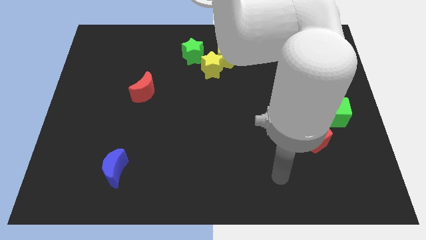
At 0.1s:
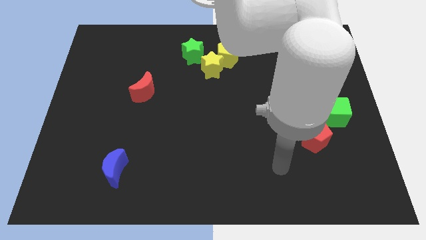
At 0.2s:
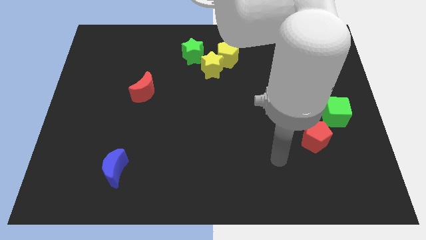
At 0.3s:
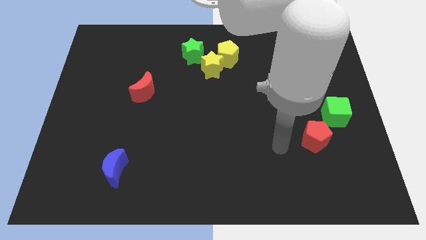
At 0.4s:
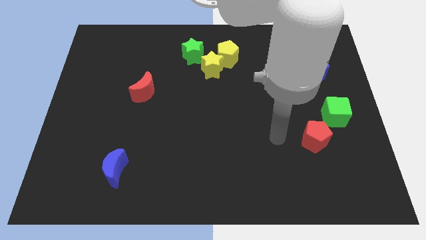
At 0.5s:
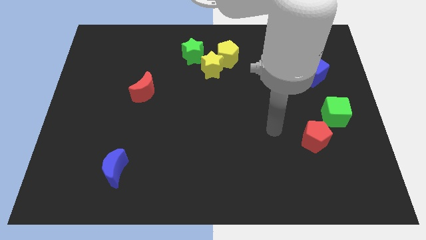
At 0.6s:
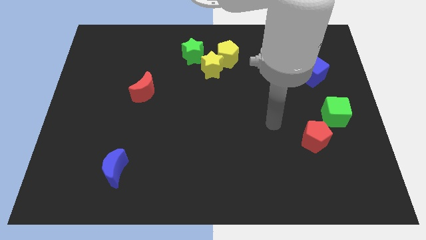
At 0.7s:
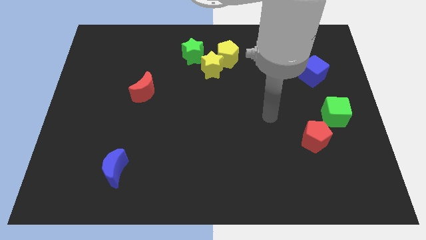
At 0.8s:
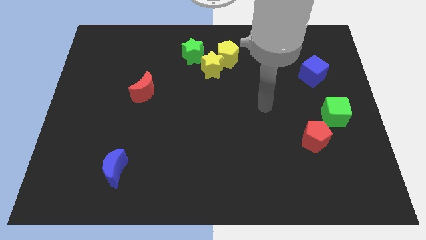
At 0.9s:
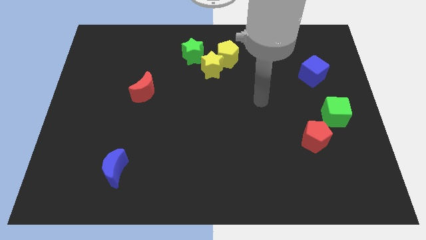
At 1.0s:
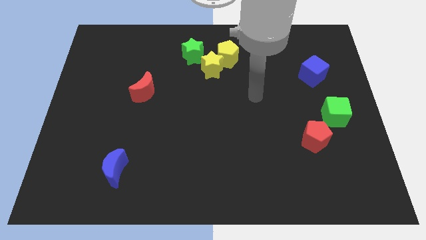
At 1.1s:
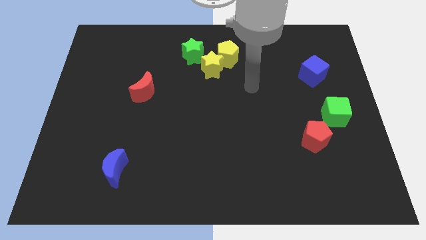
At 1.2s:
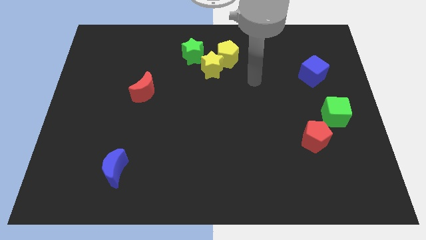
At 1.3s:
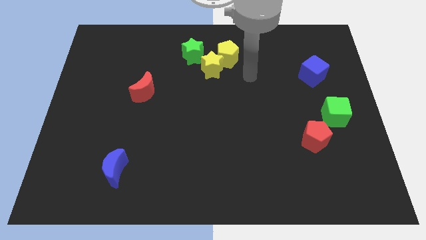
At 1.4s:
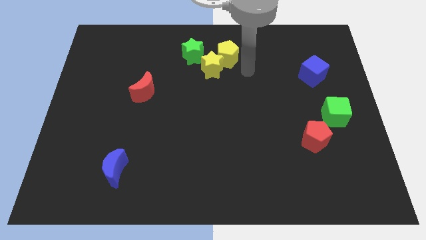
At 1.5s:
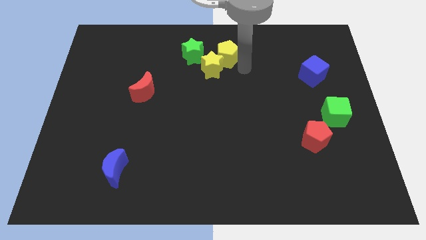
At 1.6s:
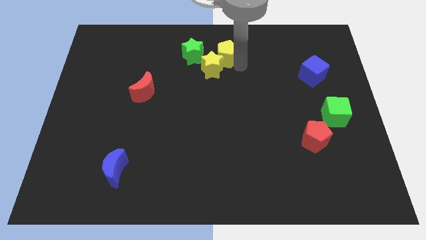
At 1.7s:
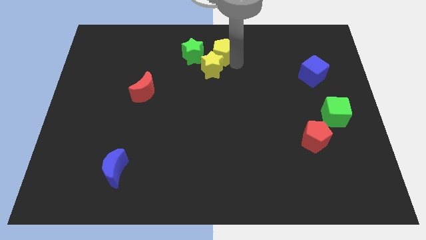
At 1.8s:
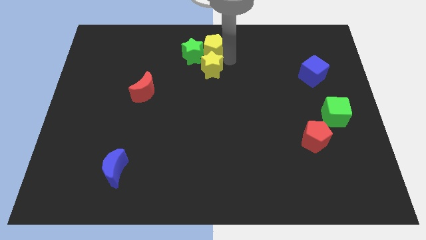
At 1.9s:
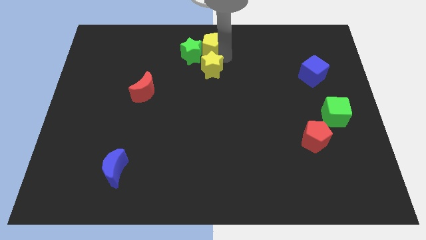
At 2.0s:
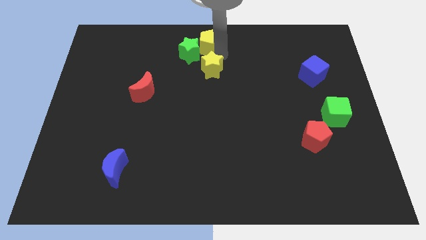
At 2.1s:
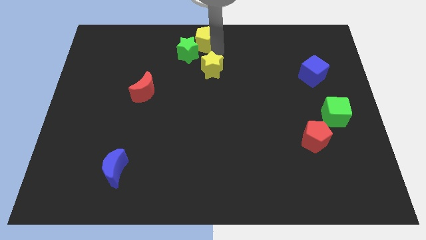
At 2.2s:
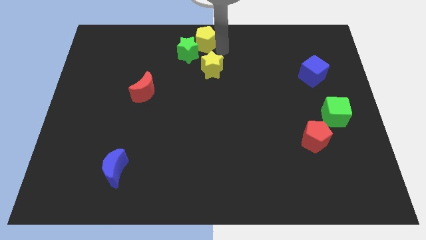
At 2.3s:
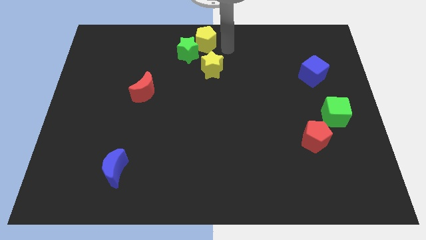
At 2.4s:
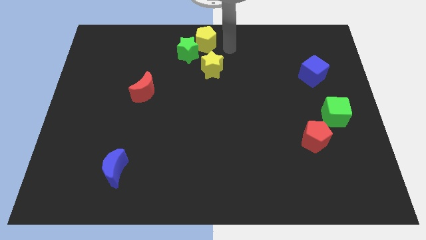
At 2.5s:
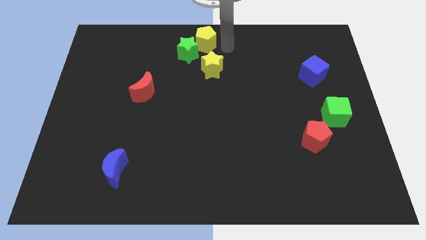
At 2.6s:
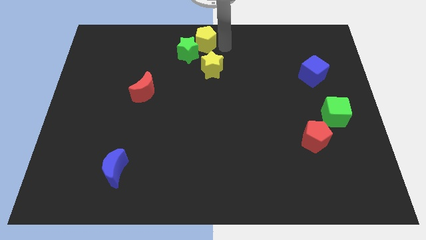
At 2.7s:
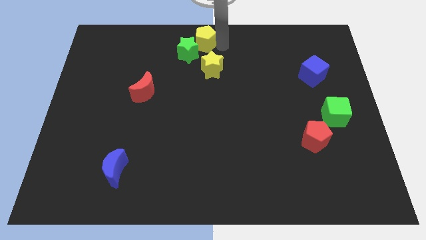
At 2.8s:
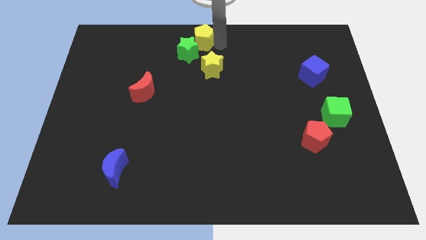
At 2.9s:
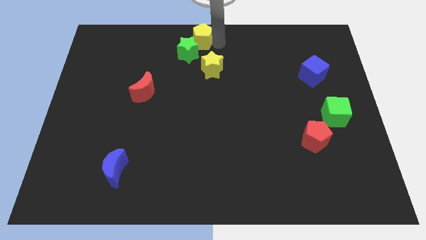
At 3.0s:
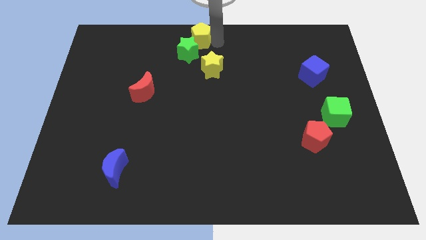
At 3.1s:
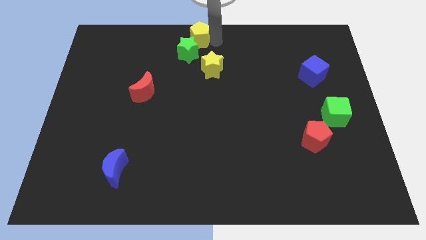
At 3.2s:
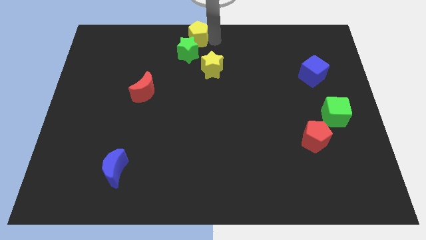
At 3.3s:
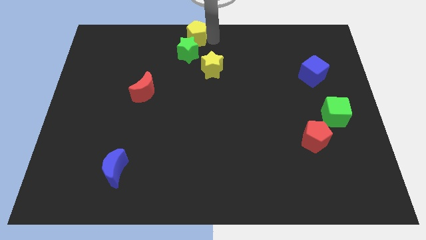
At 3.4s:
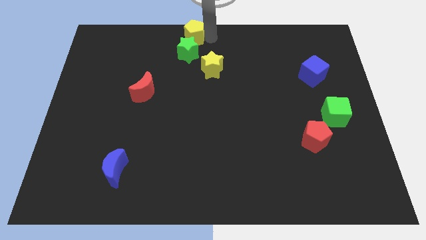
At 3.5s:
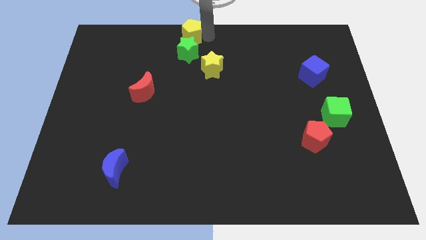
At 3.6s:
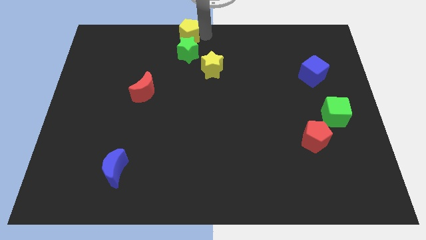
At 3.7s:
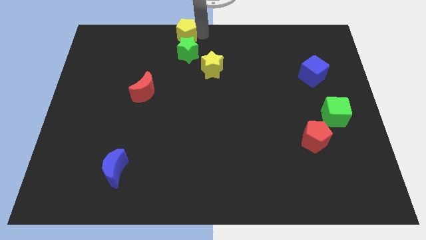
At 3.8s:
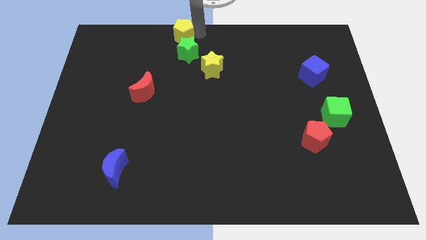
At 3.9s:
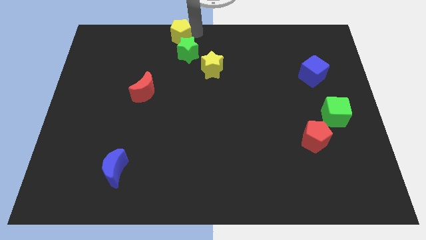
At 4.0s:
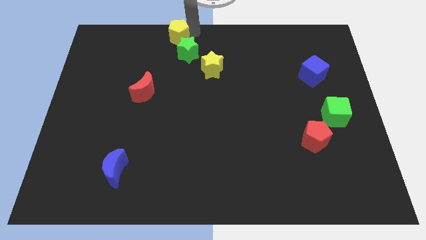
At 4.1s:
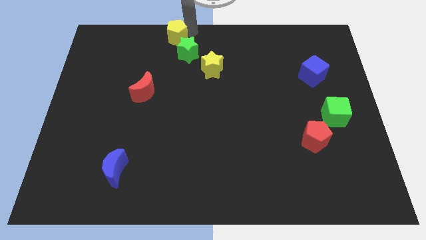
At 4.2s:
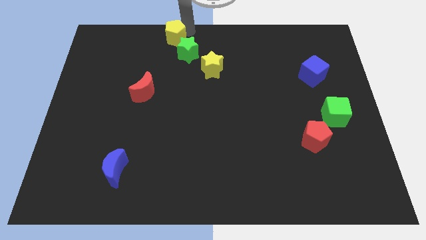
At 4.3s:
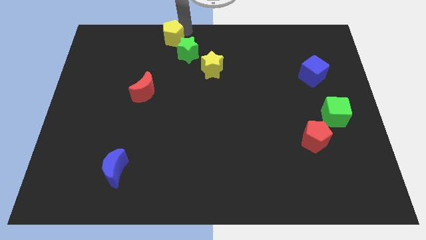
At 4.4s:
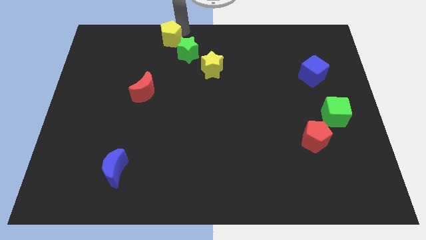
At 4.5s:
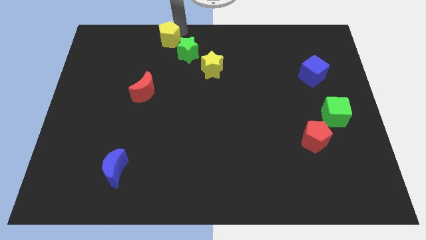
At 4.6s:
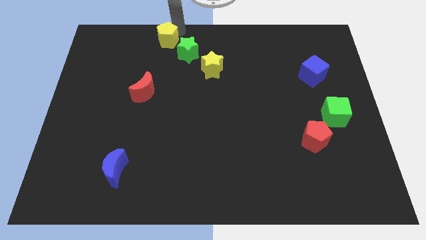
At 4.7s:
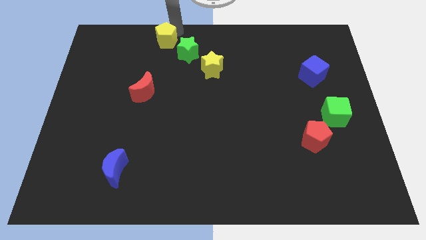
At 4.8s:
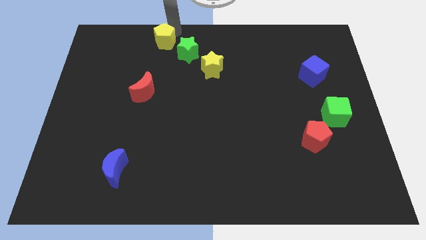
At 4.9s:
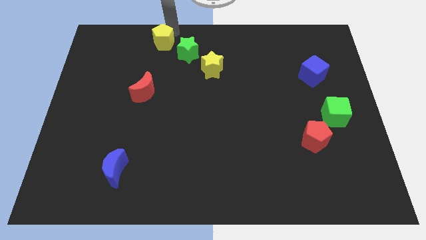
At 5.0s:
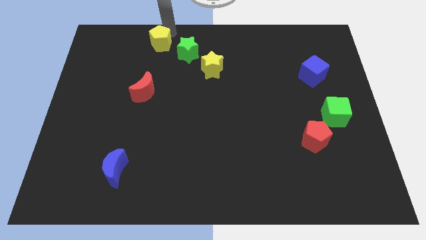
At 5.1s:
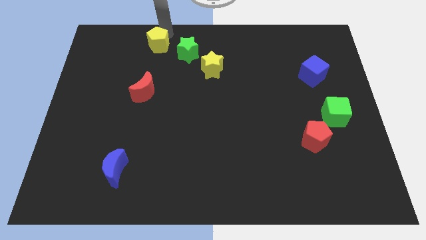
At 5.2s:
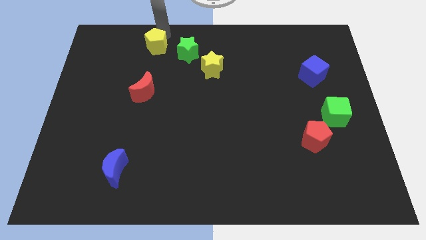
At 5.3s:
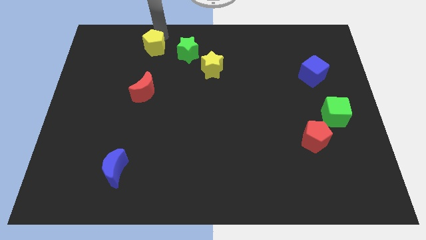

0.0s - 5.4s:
move the yellow pentagon above the red moon

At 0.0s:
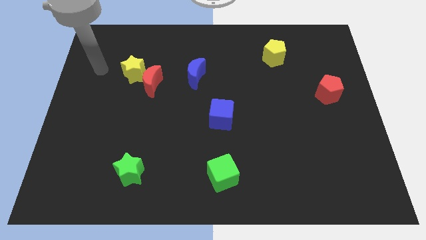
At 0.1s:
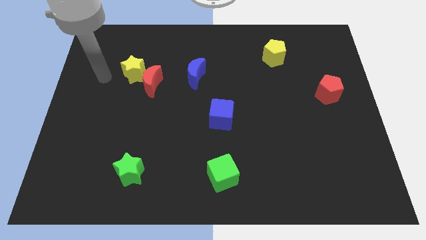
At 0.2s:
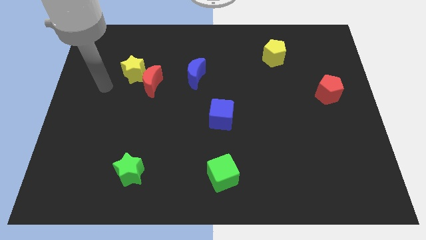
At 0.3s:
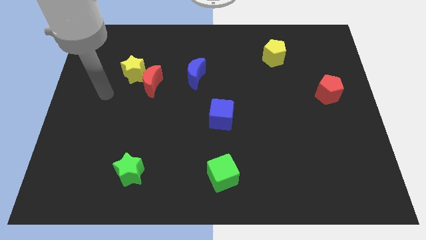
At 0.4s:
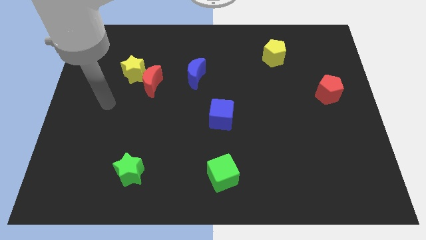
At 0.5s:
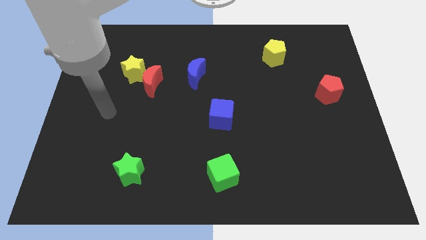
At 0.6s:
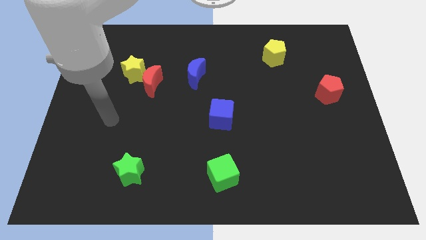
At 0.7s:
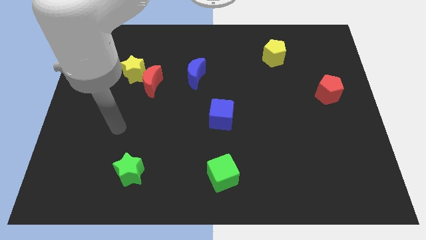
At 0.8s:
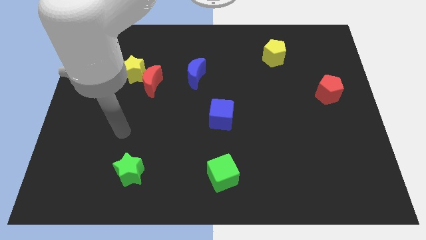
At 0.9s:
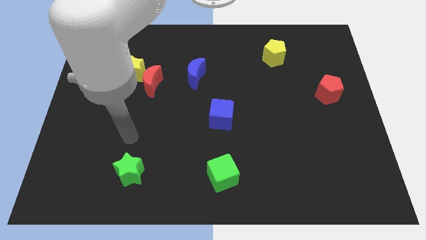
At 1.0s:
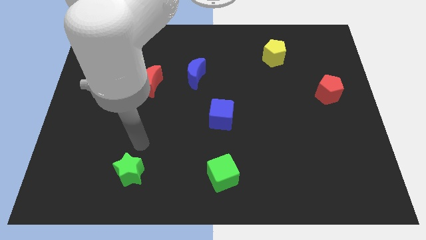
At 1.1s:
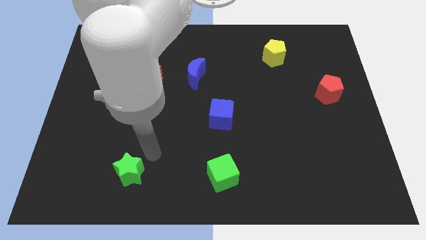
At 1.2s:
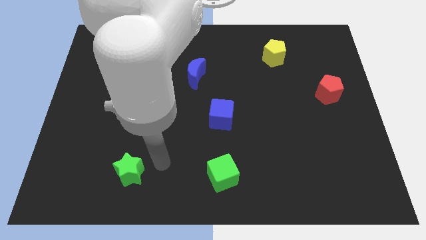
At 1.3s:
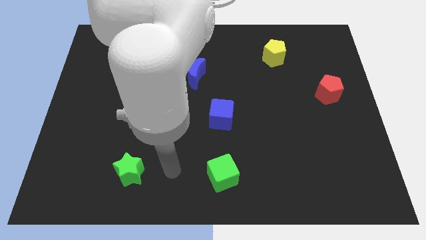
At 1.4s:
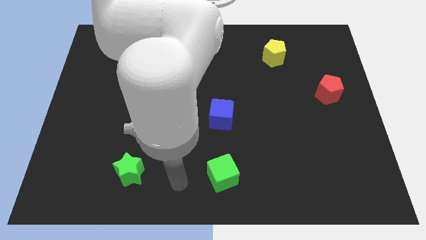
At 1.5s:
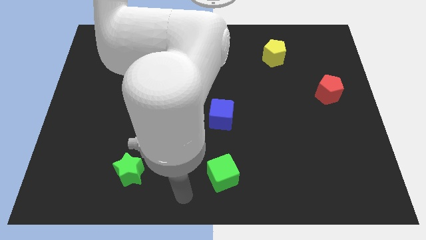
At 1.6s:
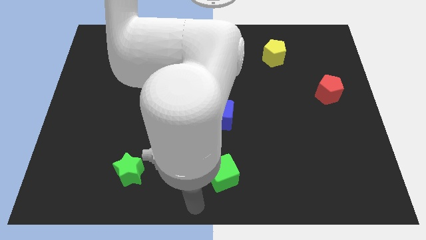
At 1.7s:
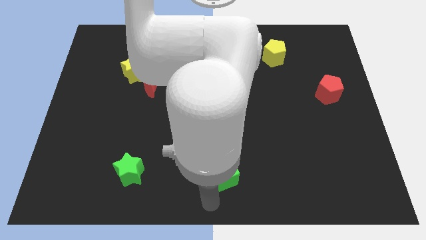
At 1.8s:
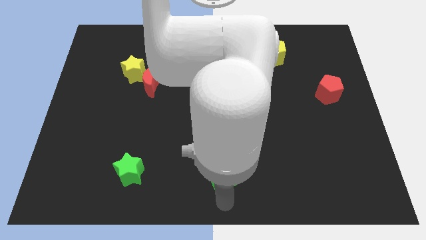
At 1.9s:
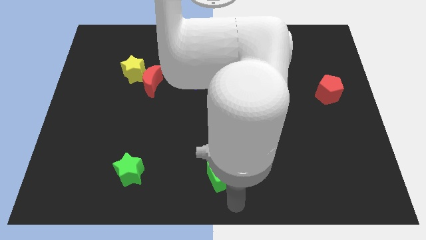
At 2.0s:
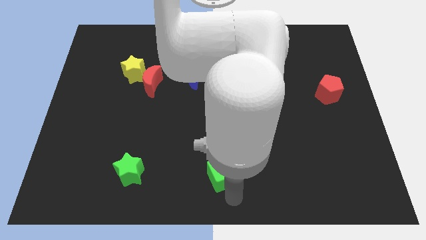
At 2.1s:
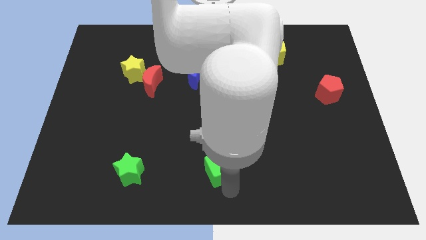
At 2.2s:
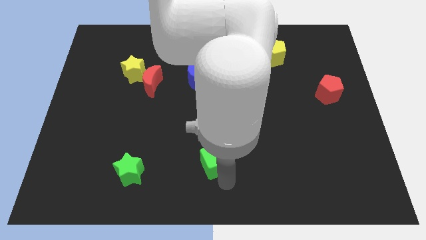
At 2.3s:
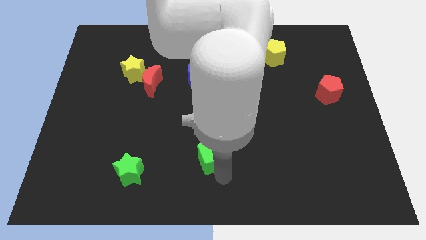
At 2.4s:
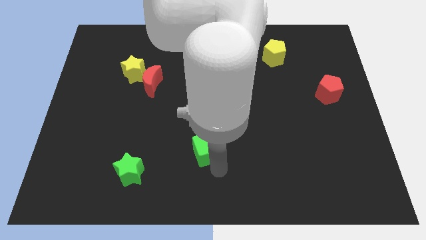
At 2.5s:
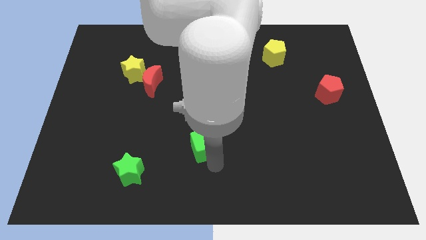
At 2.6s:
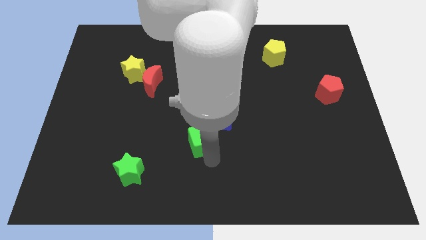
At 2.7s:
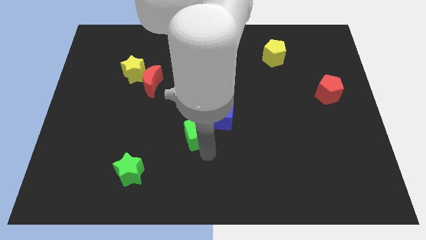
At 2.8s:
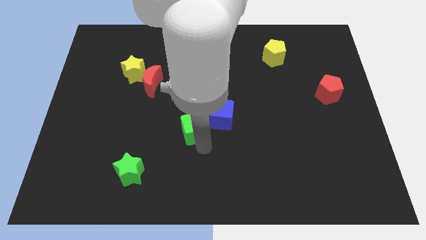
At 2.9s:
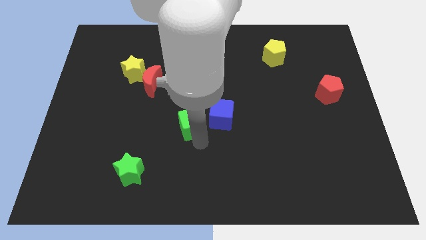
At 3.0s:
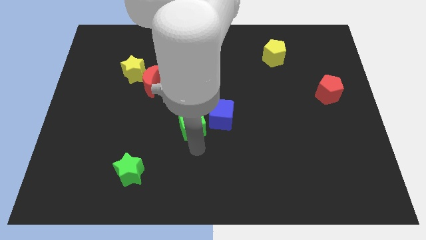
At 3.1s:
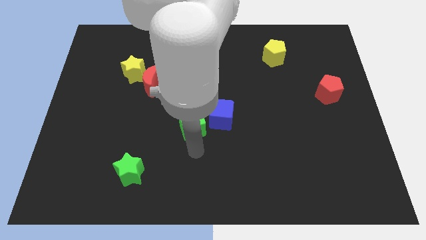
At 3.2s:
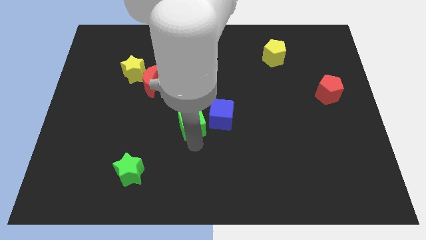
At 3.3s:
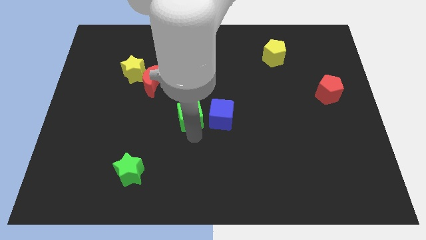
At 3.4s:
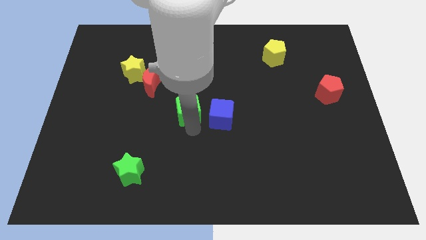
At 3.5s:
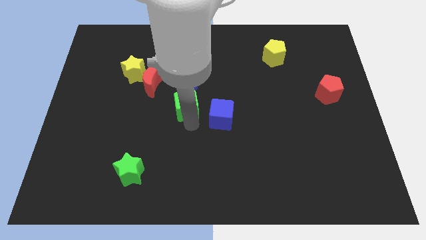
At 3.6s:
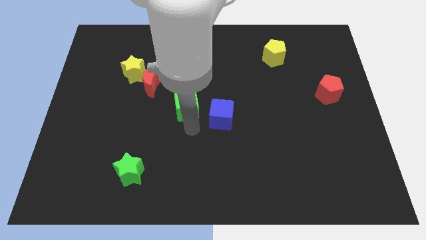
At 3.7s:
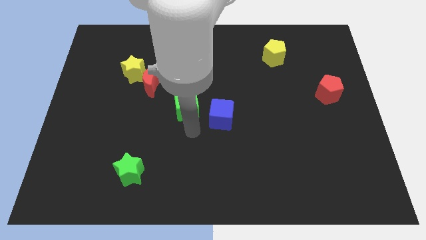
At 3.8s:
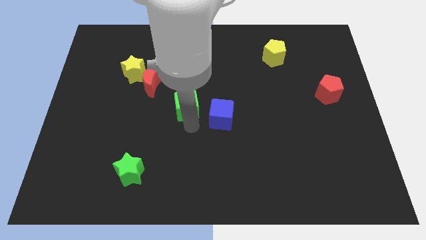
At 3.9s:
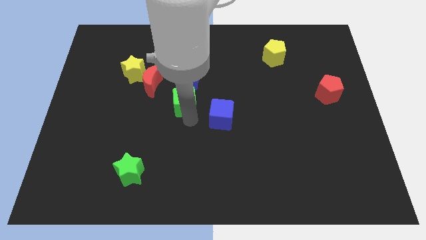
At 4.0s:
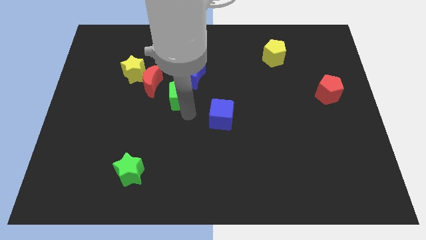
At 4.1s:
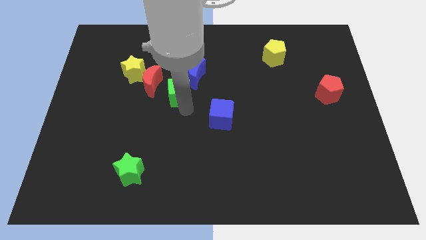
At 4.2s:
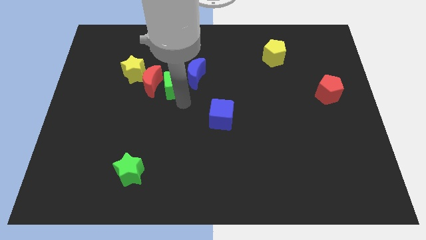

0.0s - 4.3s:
push the green cube to the top right side of the red moon
